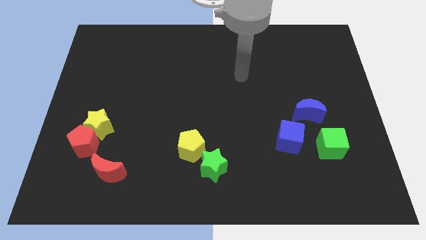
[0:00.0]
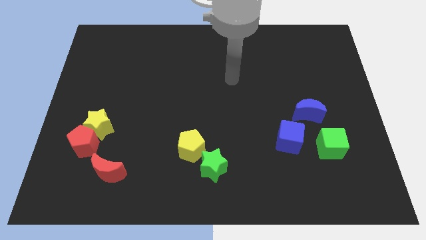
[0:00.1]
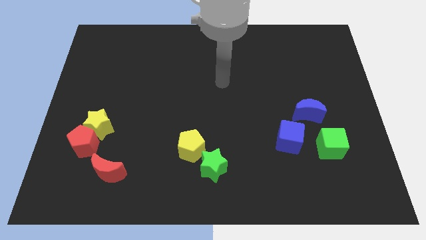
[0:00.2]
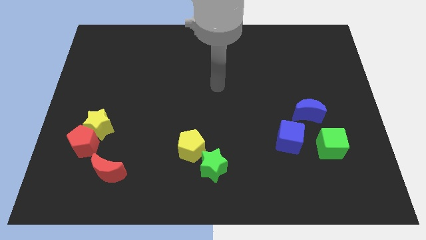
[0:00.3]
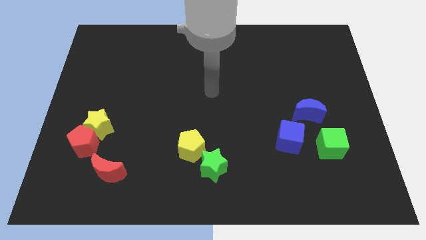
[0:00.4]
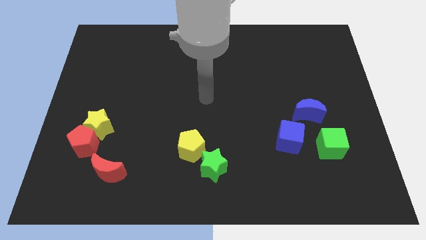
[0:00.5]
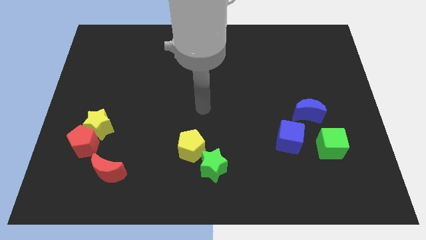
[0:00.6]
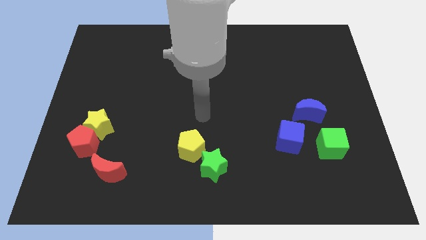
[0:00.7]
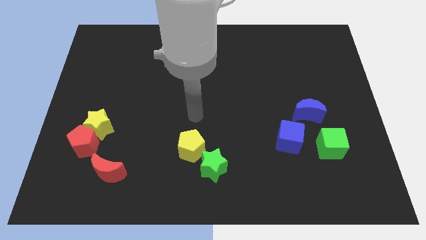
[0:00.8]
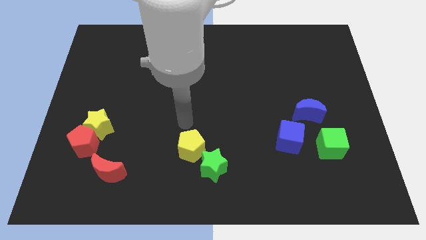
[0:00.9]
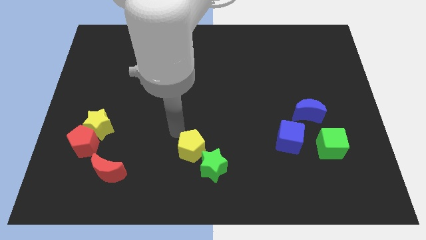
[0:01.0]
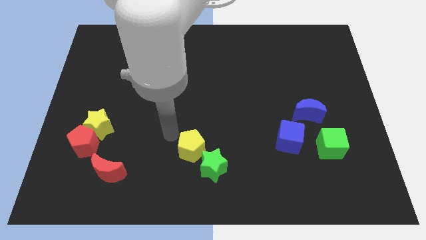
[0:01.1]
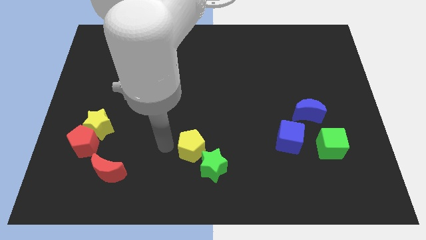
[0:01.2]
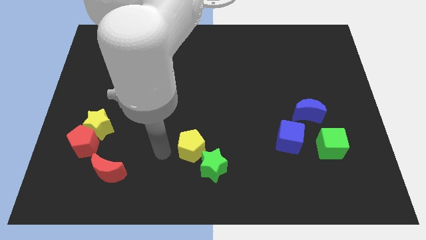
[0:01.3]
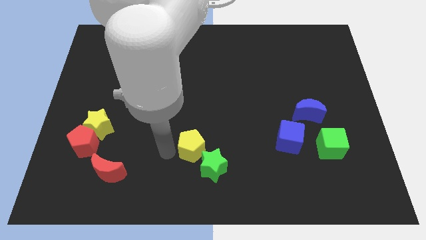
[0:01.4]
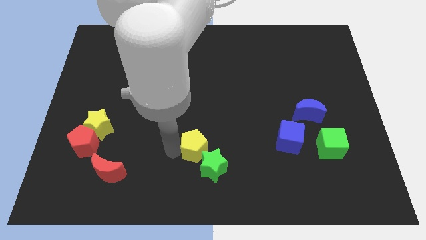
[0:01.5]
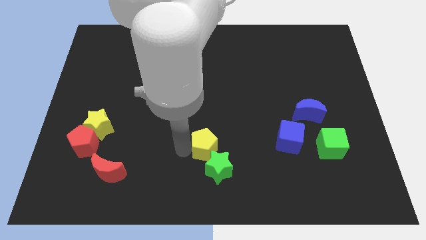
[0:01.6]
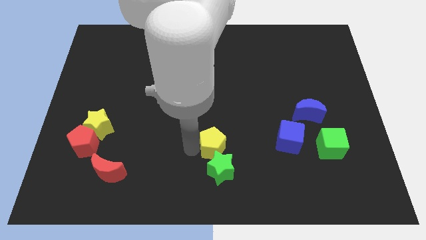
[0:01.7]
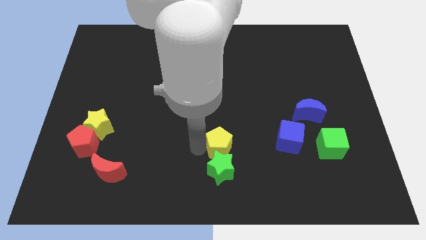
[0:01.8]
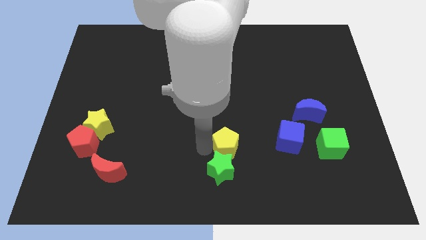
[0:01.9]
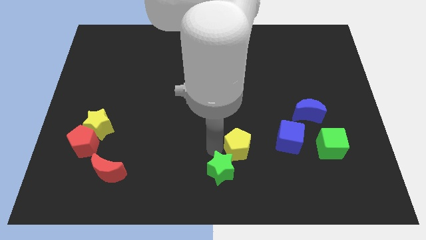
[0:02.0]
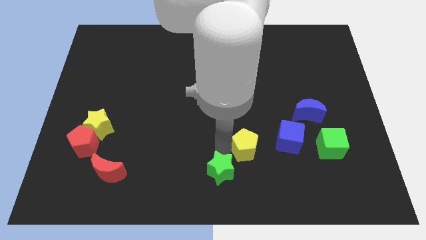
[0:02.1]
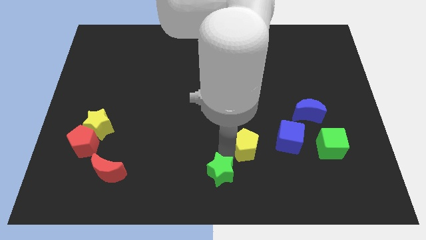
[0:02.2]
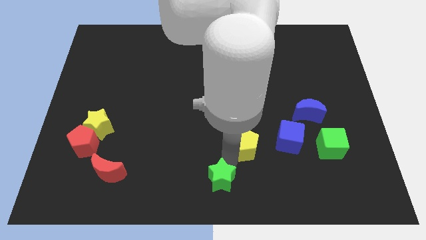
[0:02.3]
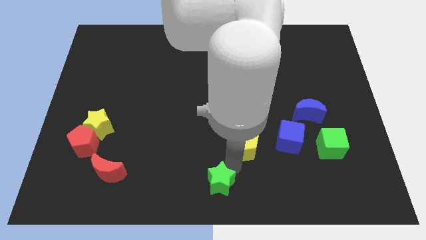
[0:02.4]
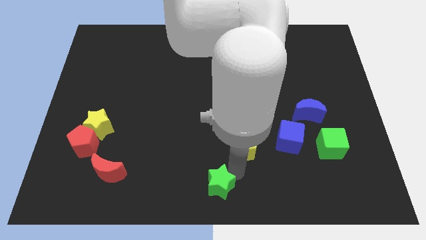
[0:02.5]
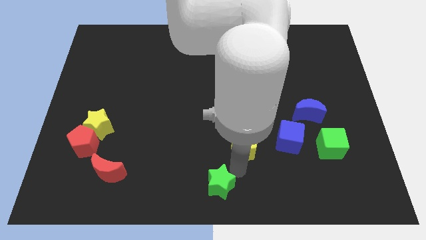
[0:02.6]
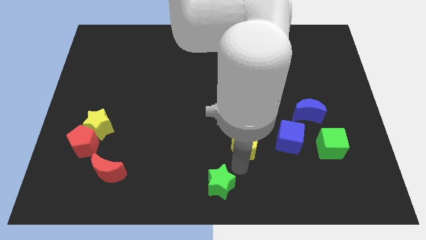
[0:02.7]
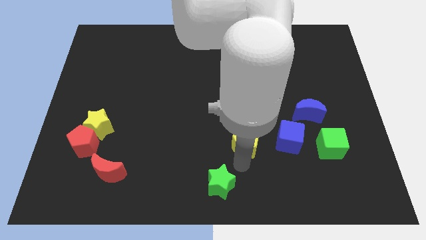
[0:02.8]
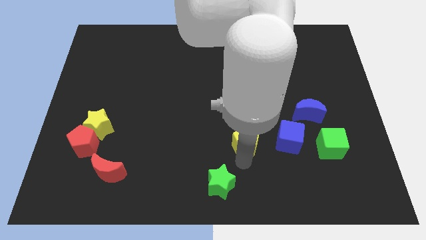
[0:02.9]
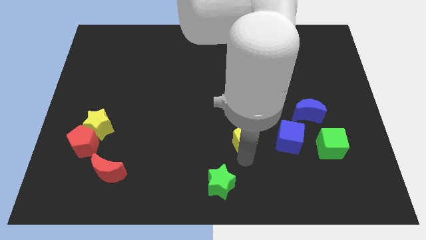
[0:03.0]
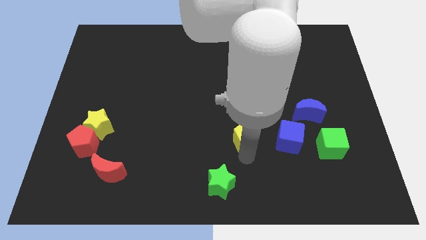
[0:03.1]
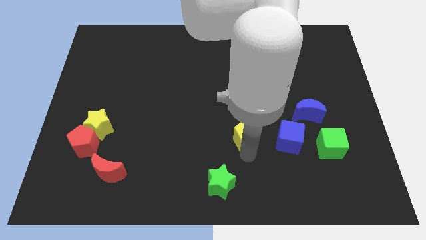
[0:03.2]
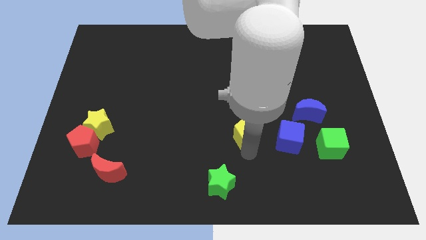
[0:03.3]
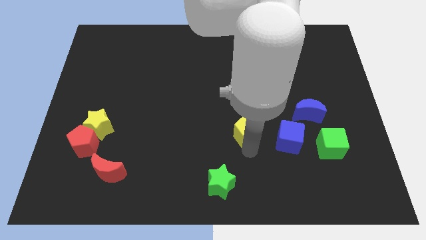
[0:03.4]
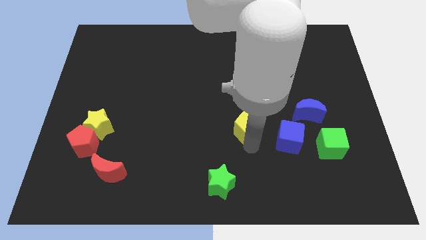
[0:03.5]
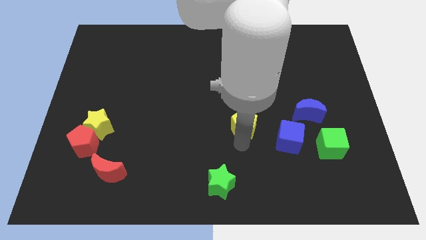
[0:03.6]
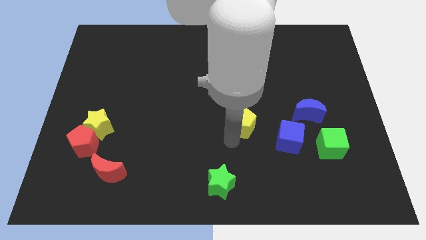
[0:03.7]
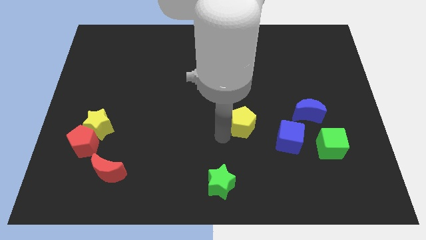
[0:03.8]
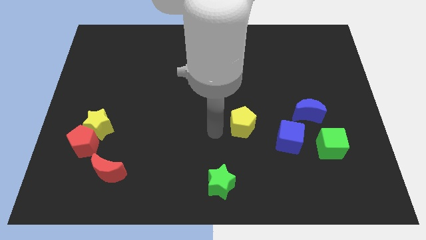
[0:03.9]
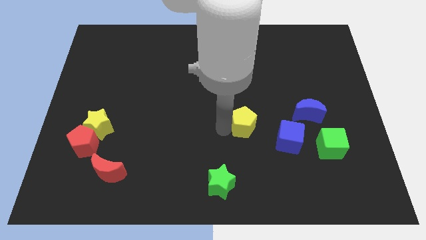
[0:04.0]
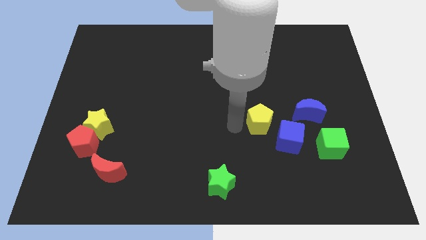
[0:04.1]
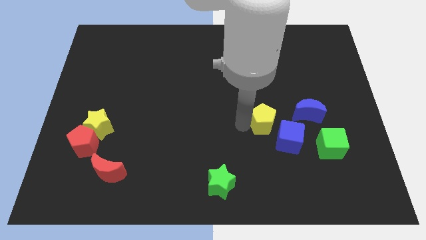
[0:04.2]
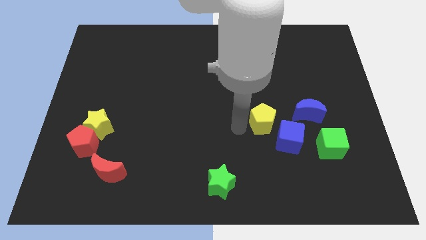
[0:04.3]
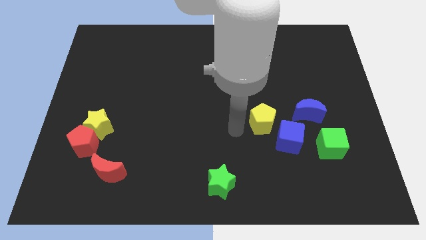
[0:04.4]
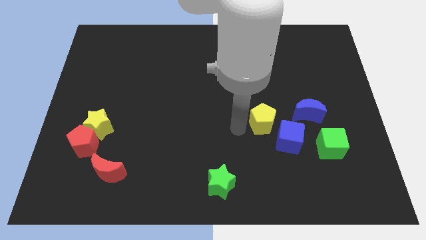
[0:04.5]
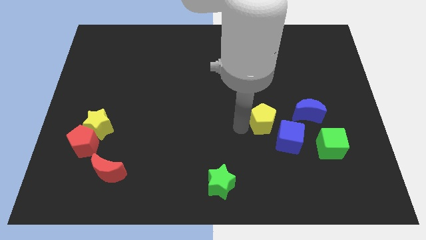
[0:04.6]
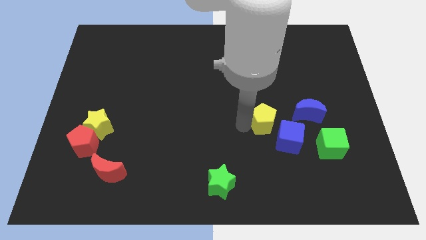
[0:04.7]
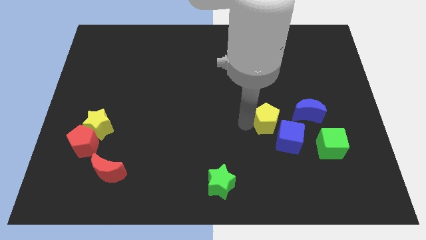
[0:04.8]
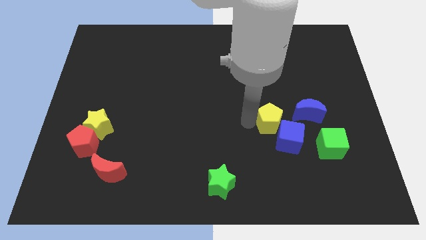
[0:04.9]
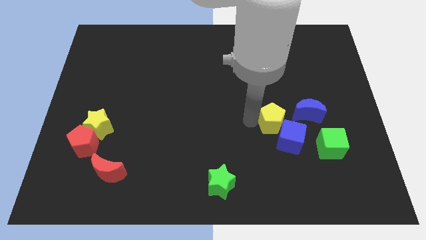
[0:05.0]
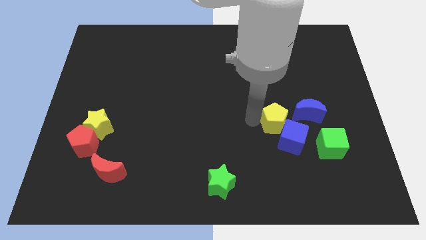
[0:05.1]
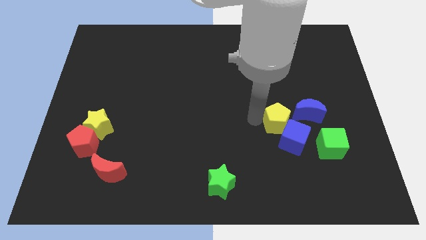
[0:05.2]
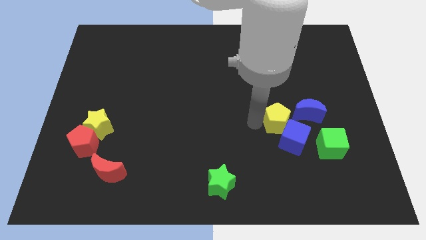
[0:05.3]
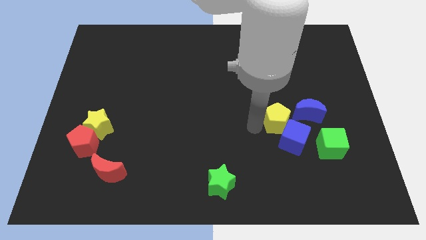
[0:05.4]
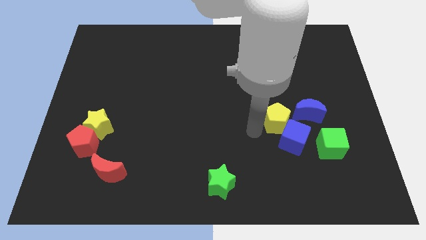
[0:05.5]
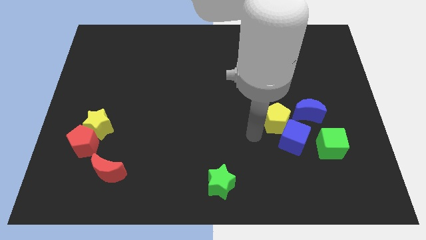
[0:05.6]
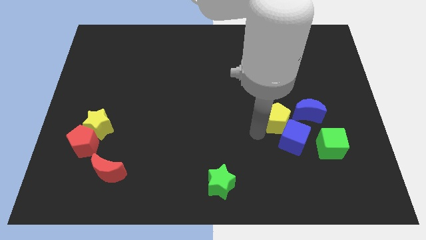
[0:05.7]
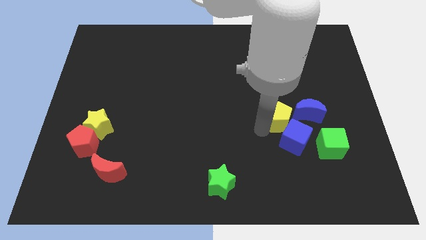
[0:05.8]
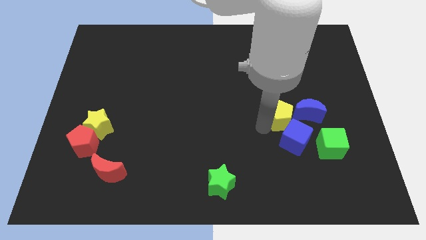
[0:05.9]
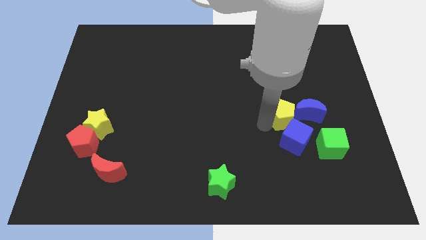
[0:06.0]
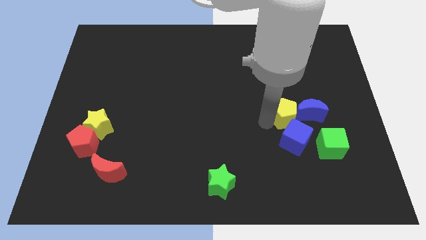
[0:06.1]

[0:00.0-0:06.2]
push the yellow pentagon towards the blue moon

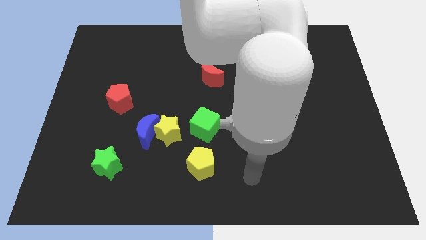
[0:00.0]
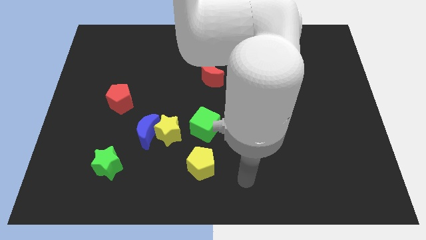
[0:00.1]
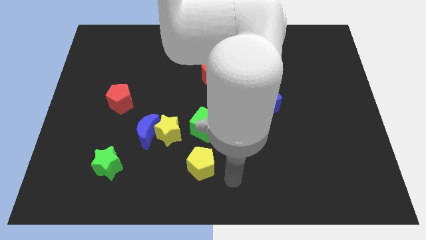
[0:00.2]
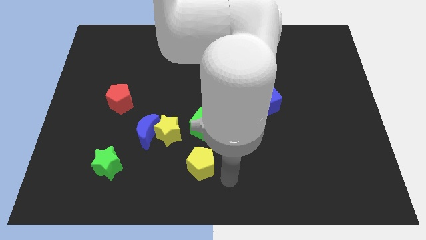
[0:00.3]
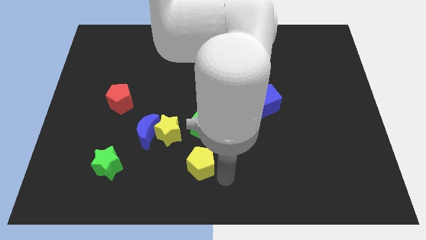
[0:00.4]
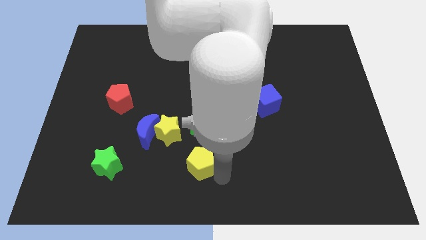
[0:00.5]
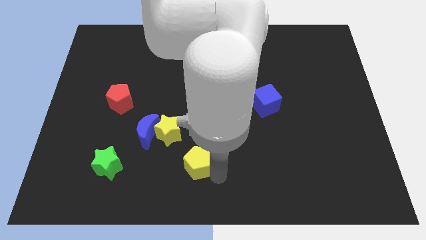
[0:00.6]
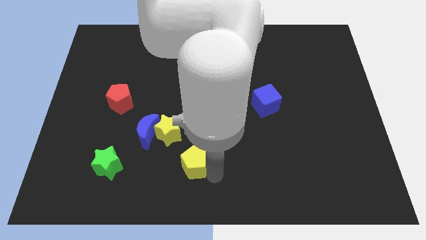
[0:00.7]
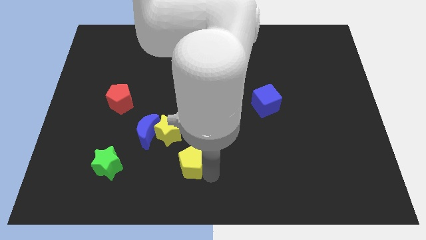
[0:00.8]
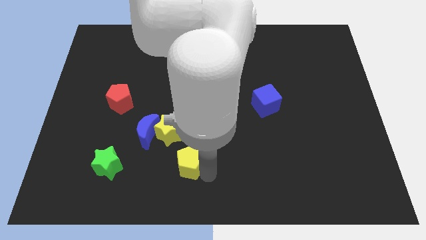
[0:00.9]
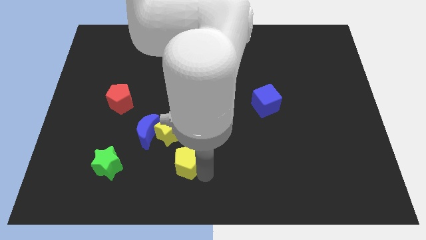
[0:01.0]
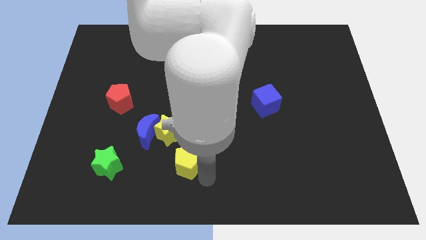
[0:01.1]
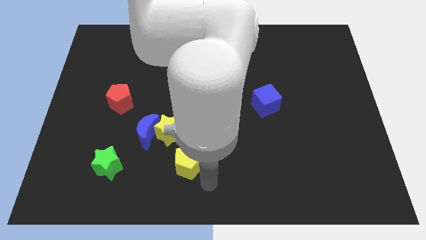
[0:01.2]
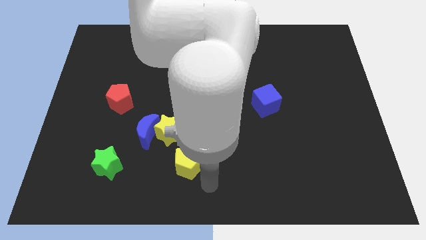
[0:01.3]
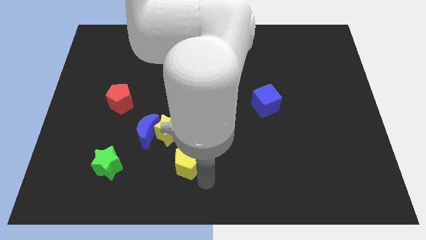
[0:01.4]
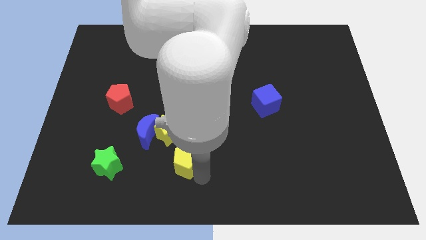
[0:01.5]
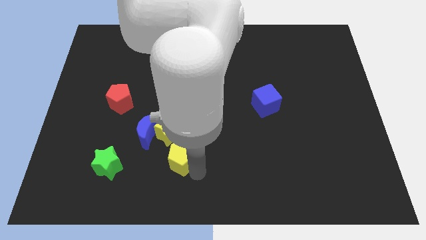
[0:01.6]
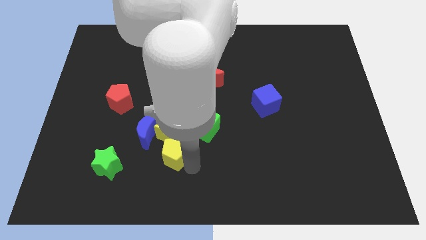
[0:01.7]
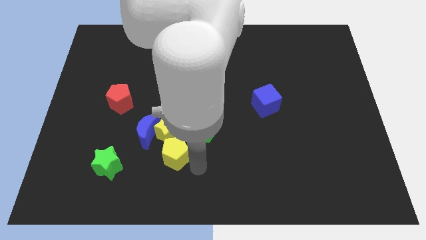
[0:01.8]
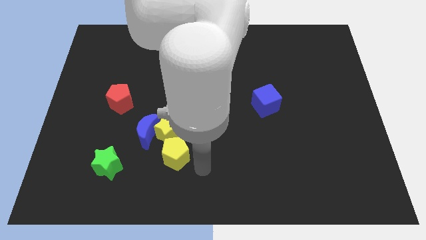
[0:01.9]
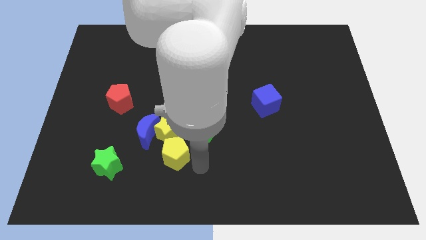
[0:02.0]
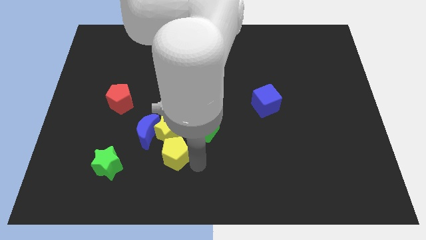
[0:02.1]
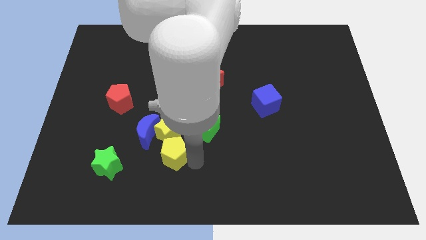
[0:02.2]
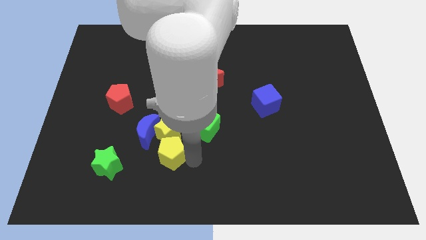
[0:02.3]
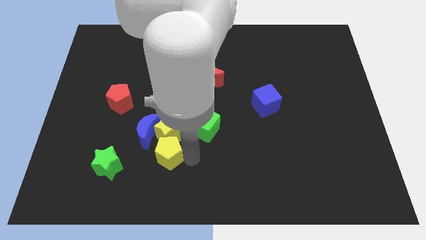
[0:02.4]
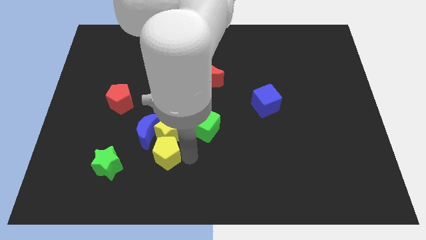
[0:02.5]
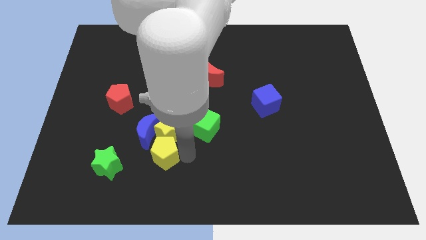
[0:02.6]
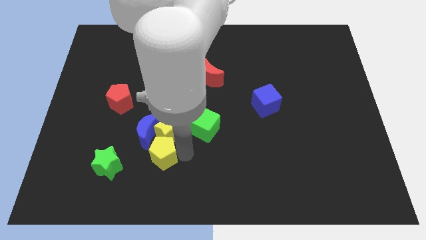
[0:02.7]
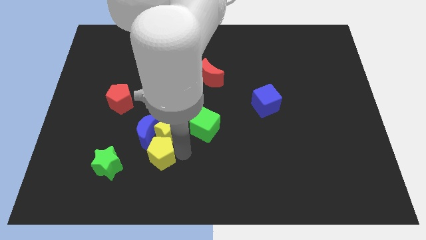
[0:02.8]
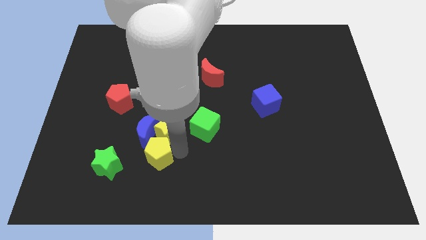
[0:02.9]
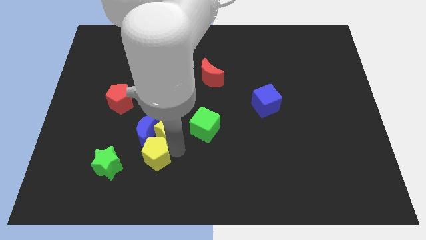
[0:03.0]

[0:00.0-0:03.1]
move the yellow pentagon close to the blue moon
